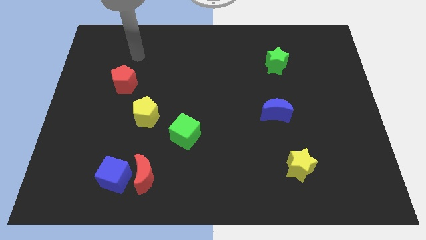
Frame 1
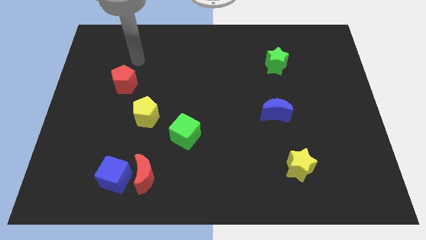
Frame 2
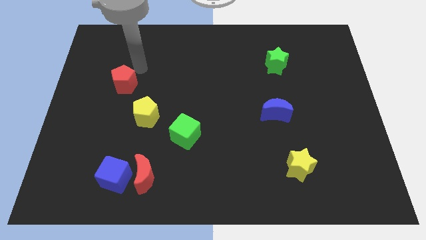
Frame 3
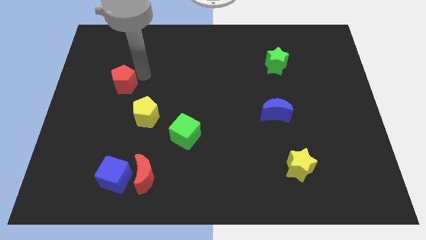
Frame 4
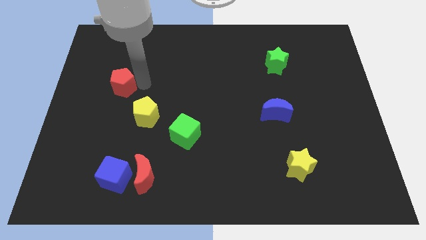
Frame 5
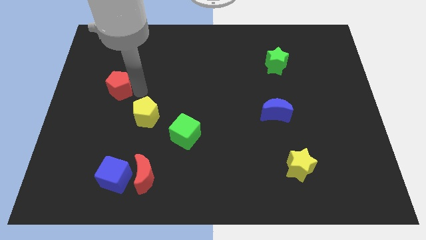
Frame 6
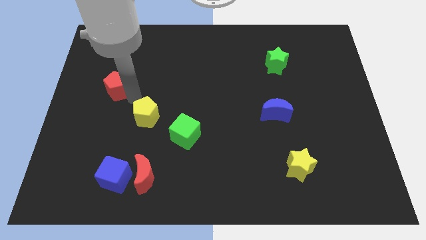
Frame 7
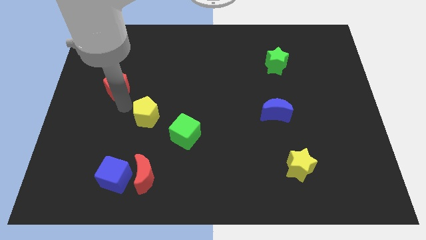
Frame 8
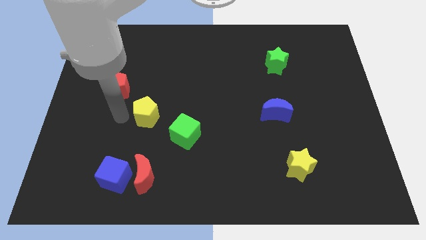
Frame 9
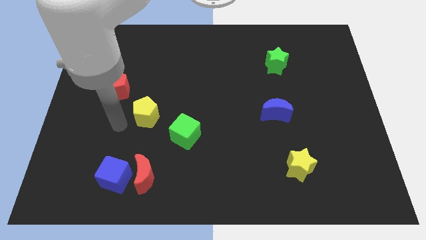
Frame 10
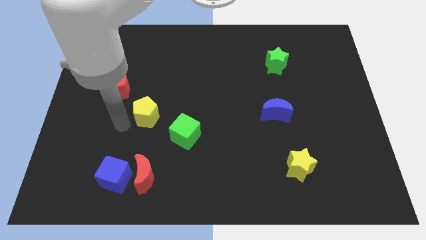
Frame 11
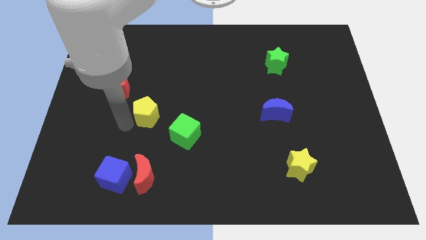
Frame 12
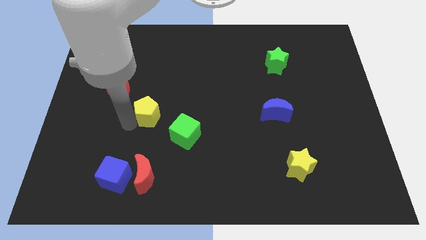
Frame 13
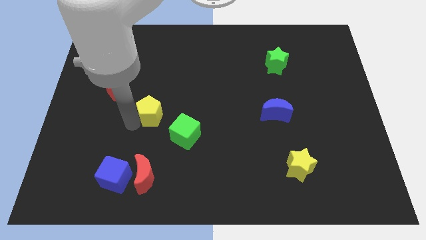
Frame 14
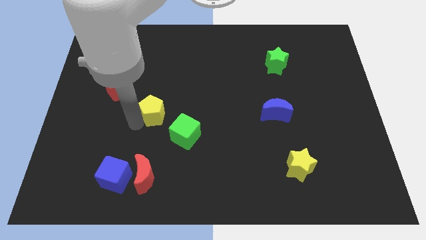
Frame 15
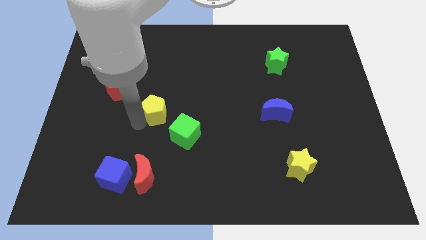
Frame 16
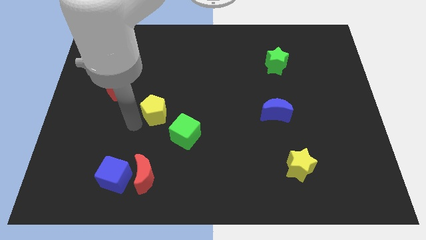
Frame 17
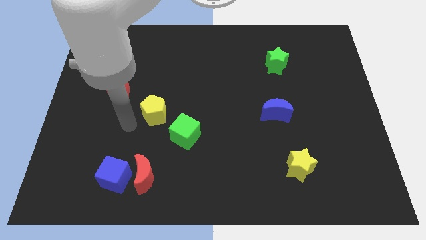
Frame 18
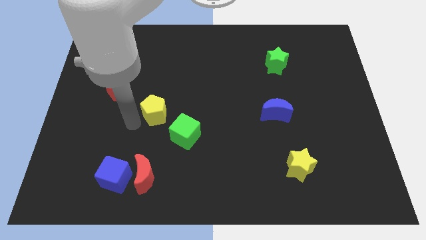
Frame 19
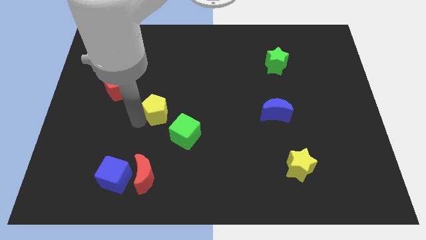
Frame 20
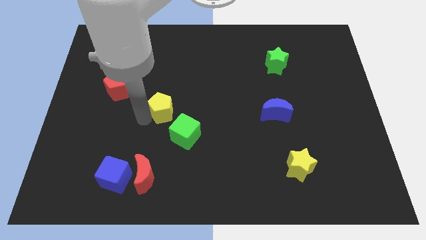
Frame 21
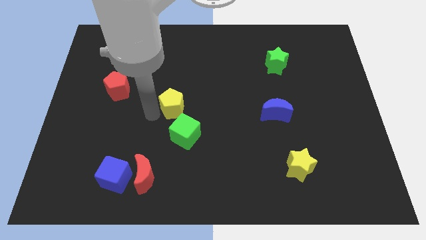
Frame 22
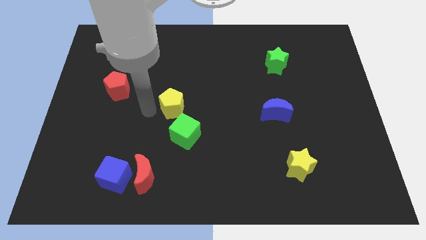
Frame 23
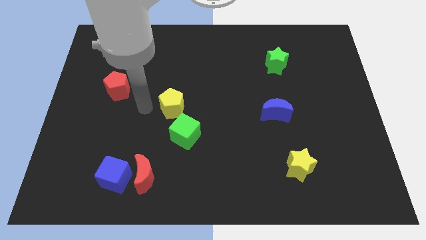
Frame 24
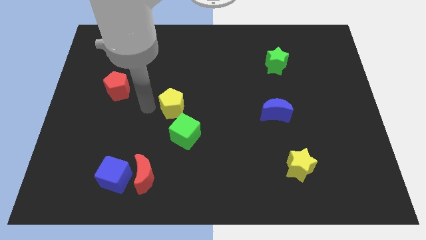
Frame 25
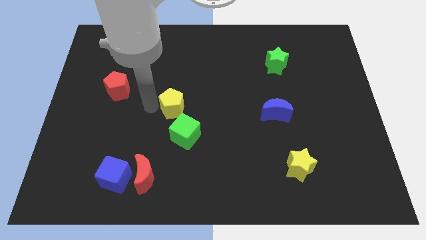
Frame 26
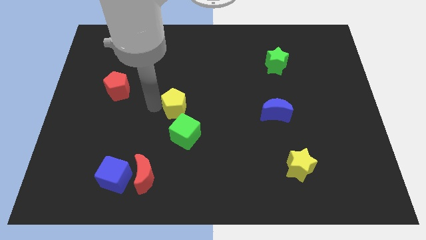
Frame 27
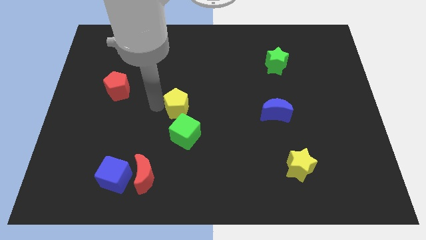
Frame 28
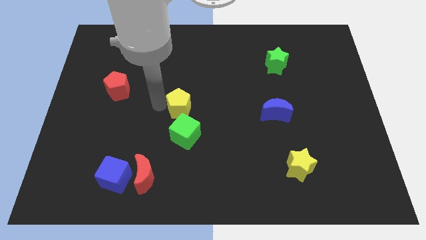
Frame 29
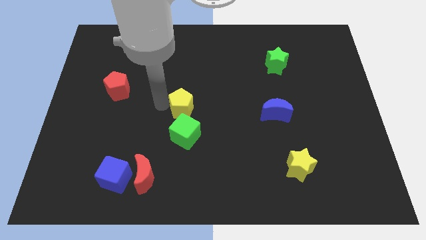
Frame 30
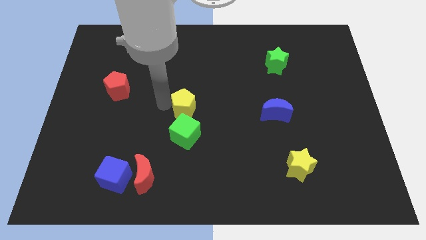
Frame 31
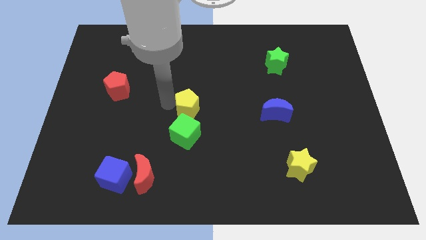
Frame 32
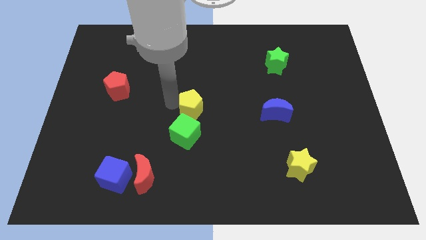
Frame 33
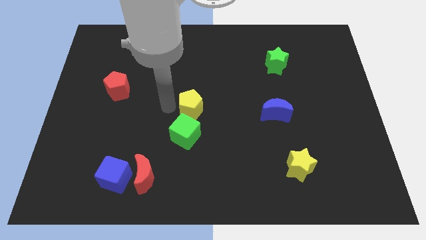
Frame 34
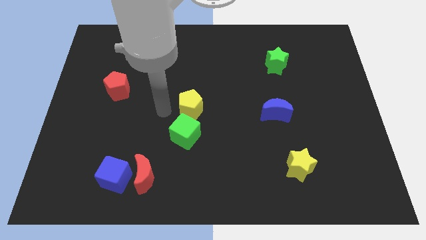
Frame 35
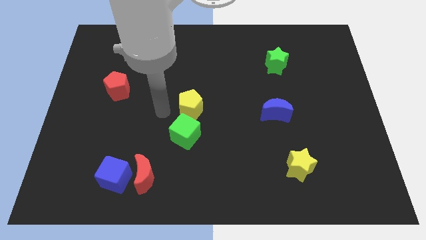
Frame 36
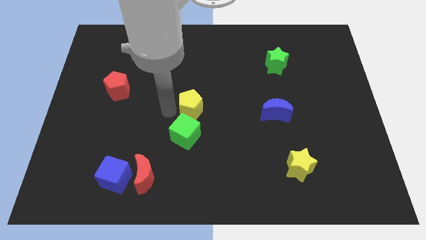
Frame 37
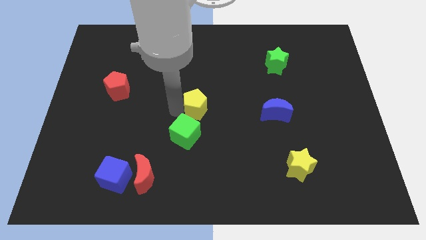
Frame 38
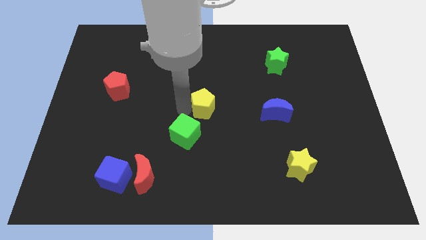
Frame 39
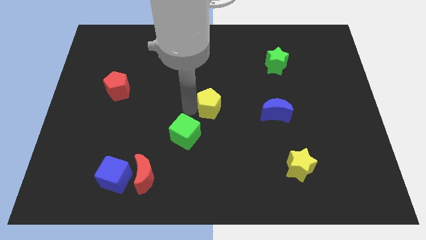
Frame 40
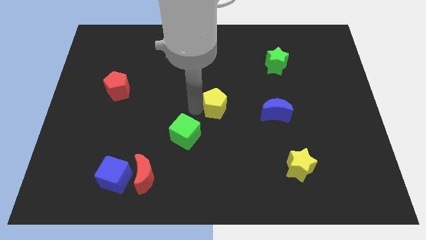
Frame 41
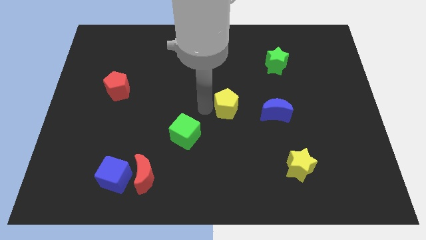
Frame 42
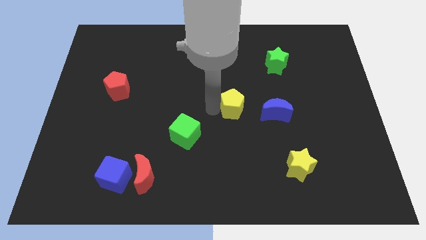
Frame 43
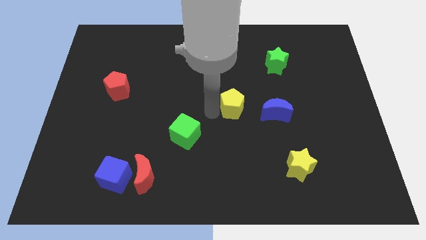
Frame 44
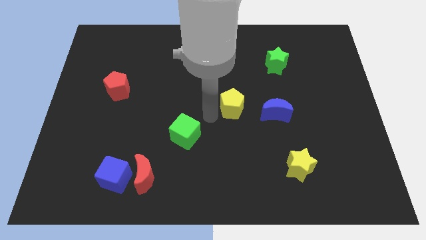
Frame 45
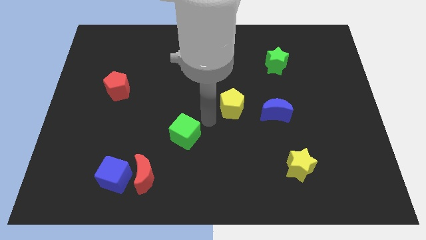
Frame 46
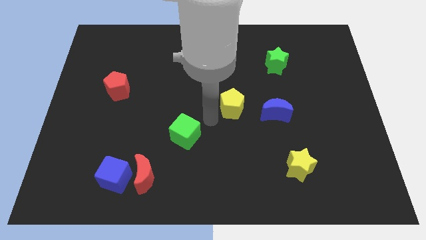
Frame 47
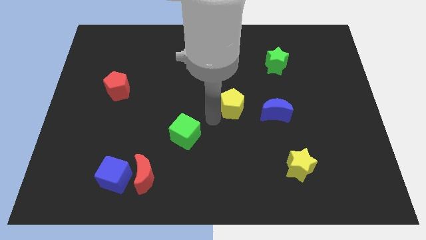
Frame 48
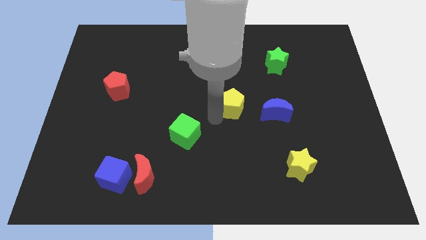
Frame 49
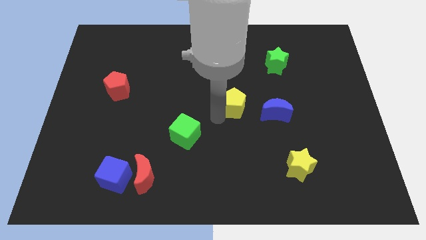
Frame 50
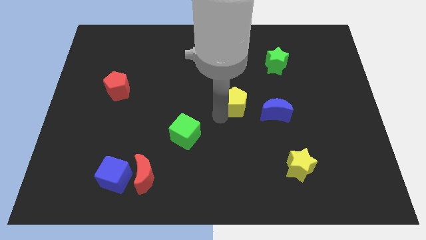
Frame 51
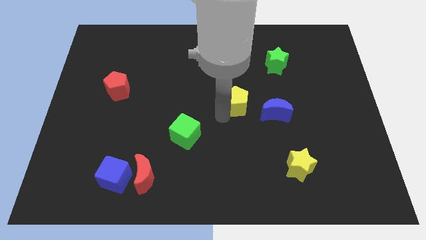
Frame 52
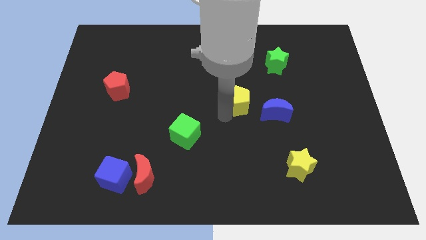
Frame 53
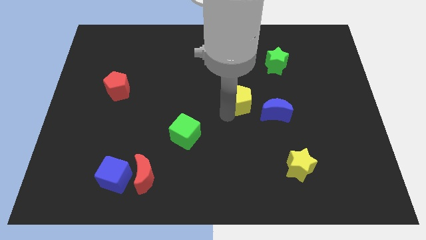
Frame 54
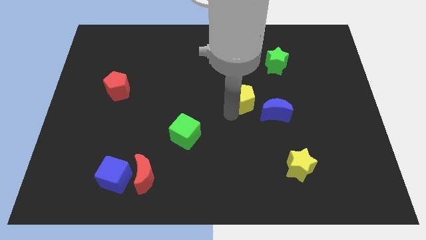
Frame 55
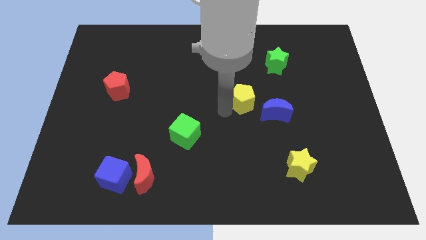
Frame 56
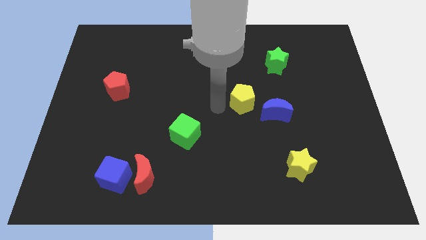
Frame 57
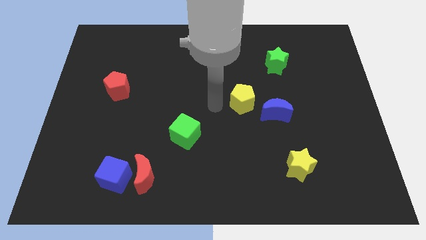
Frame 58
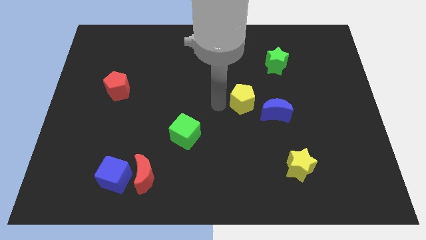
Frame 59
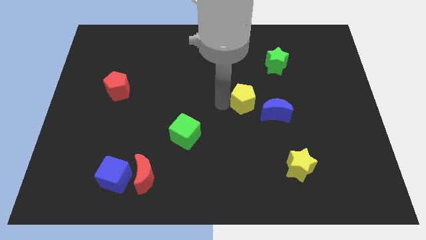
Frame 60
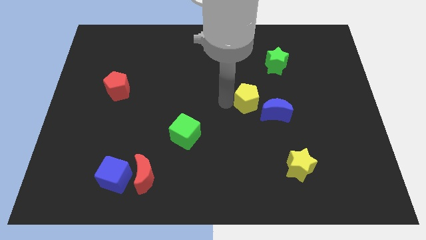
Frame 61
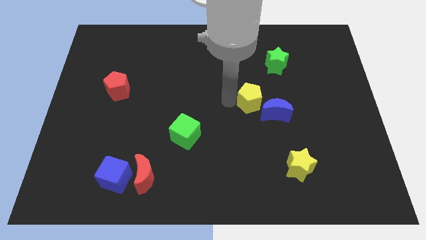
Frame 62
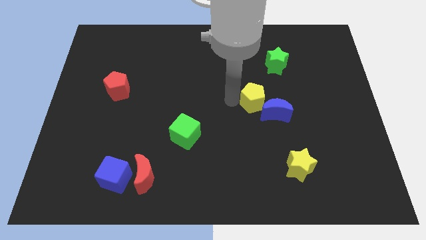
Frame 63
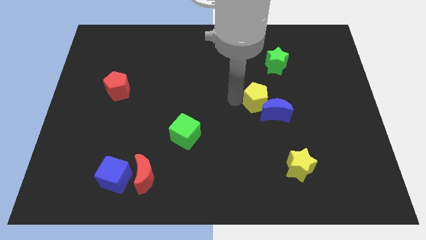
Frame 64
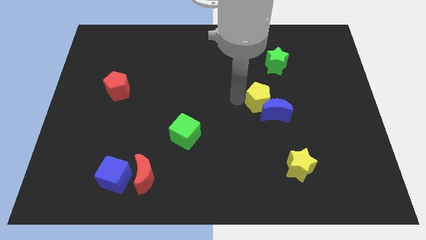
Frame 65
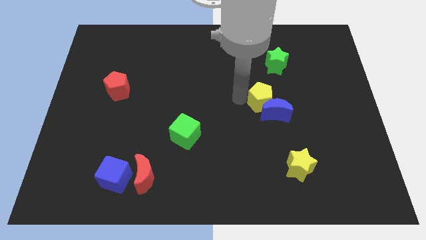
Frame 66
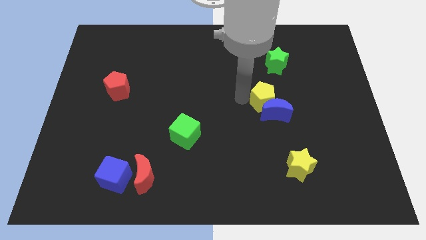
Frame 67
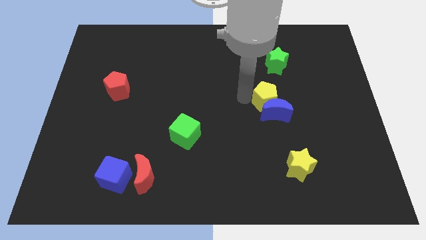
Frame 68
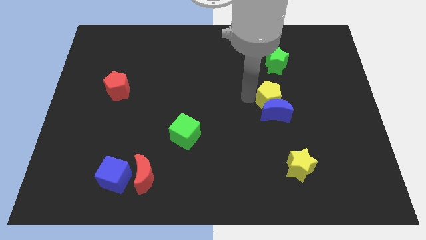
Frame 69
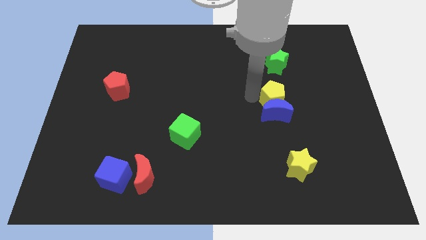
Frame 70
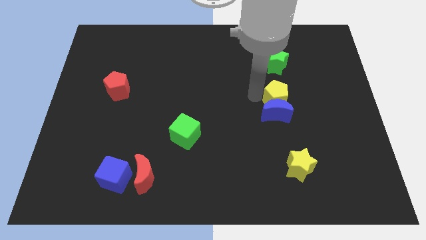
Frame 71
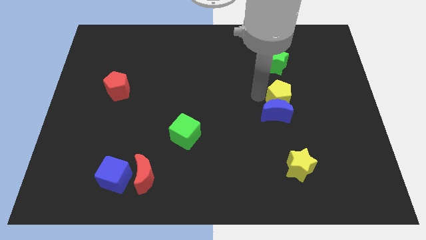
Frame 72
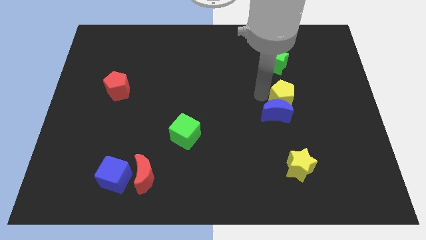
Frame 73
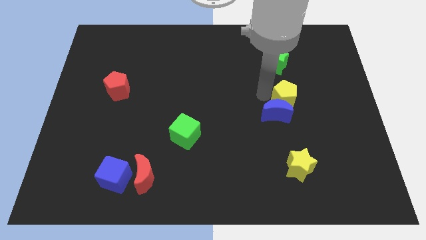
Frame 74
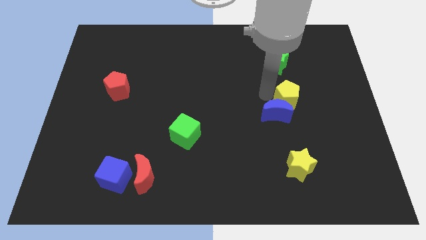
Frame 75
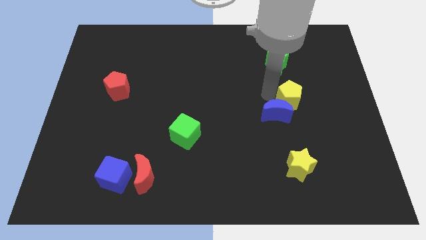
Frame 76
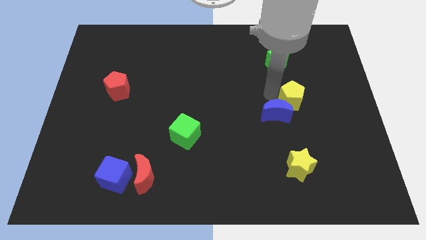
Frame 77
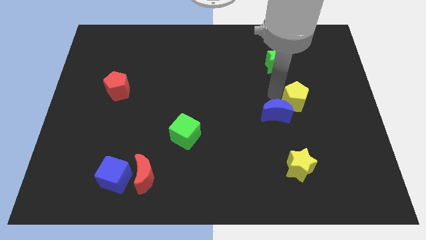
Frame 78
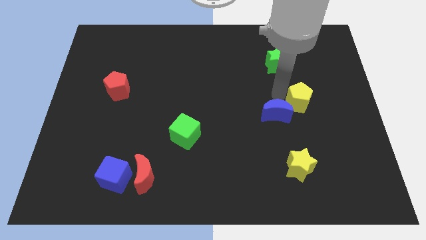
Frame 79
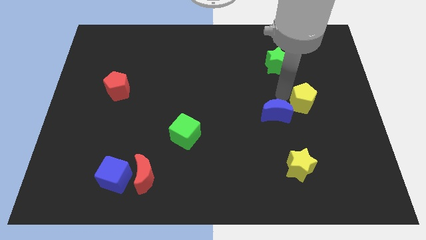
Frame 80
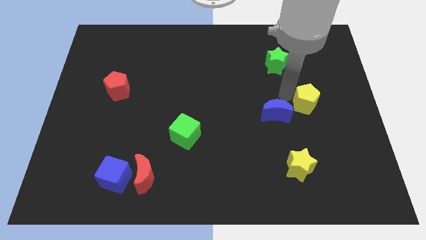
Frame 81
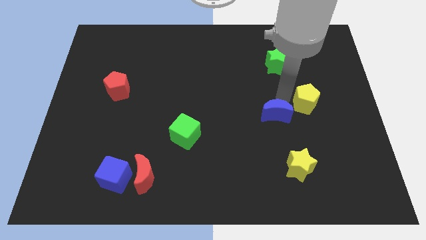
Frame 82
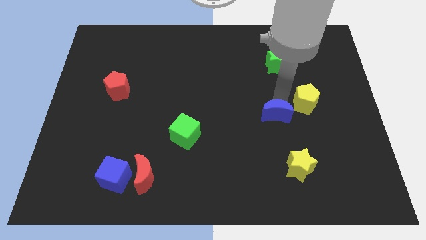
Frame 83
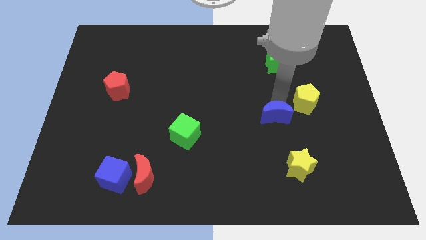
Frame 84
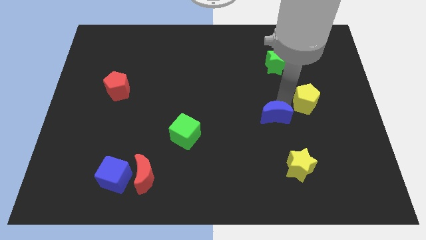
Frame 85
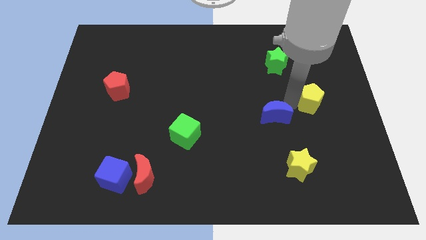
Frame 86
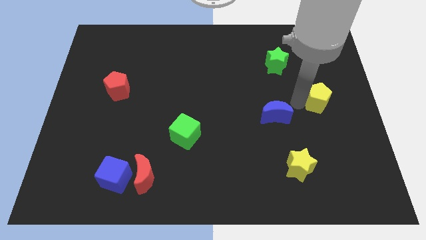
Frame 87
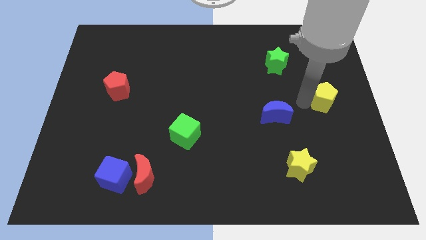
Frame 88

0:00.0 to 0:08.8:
slide the yellow pentagon to the center right
